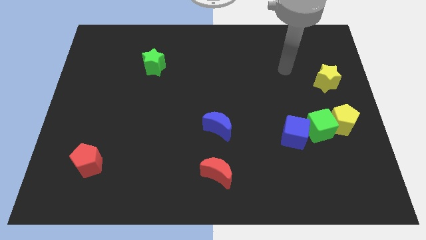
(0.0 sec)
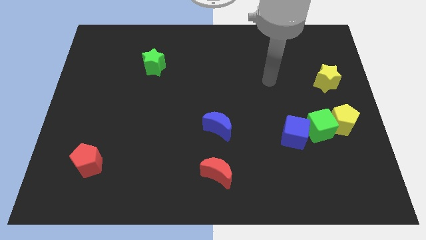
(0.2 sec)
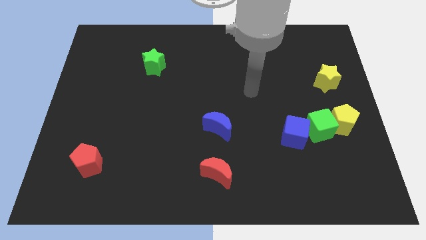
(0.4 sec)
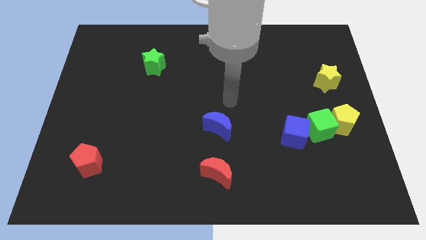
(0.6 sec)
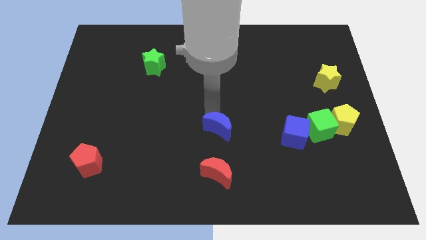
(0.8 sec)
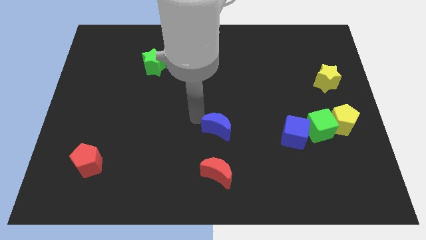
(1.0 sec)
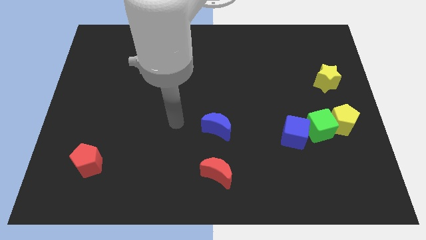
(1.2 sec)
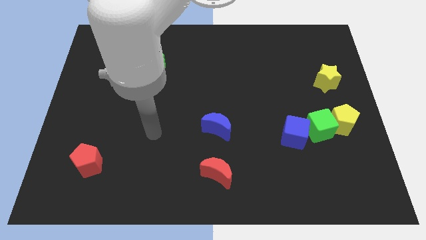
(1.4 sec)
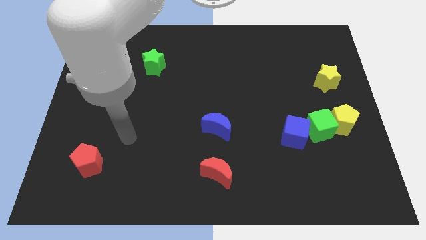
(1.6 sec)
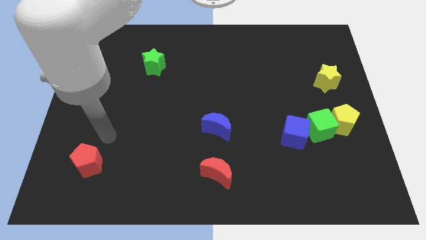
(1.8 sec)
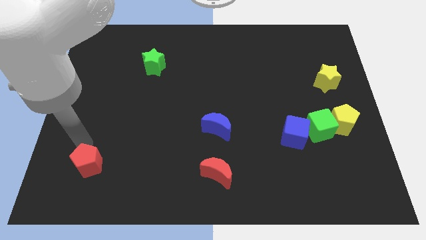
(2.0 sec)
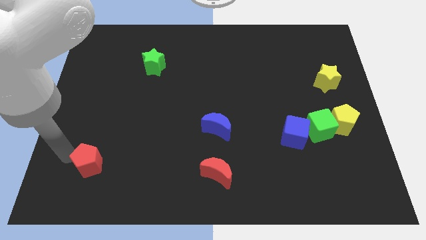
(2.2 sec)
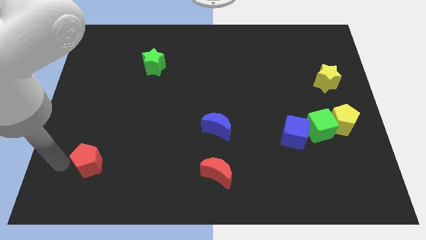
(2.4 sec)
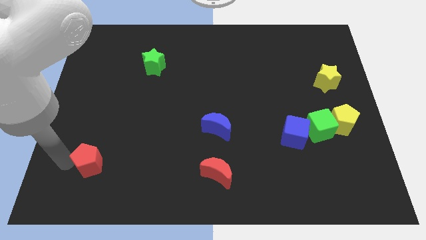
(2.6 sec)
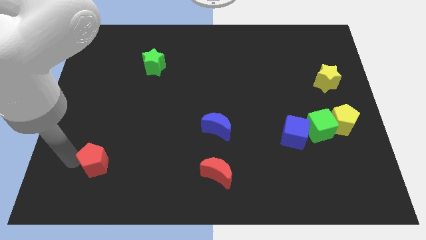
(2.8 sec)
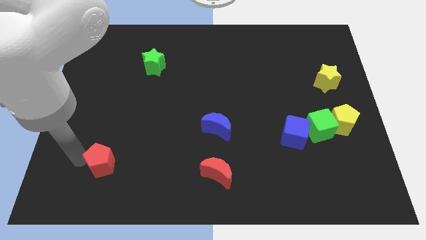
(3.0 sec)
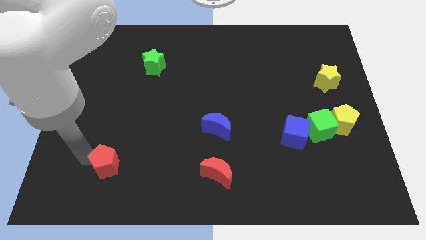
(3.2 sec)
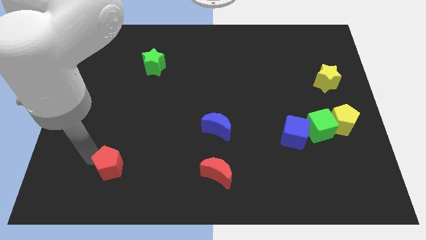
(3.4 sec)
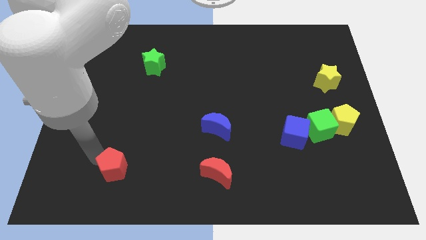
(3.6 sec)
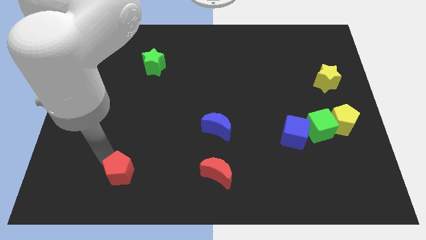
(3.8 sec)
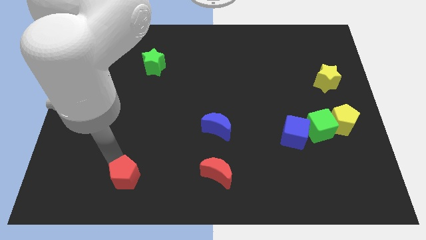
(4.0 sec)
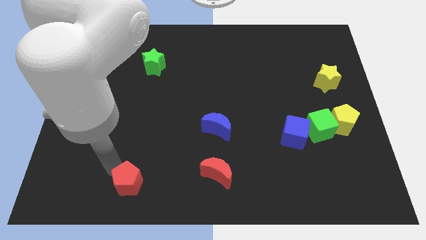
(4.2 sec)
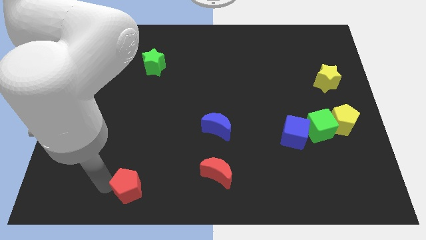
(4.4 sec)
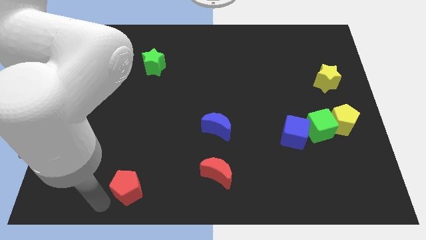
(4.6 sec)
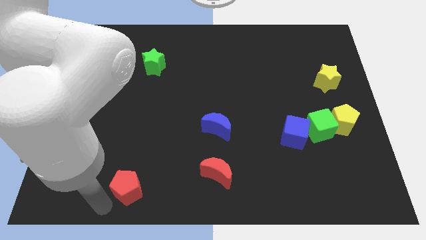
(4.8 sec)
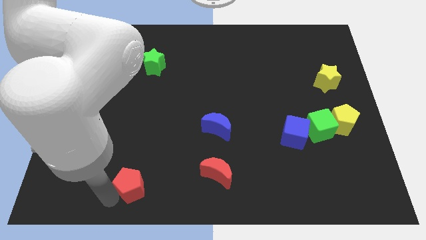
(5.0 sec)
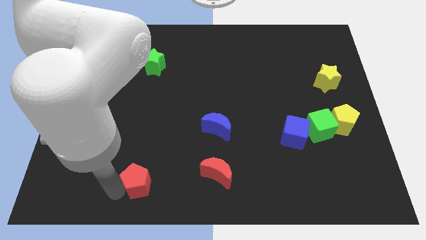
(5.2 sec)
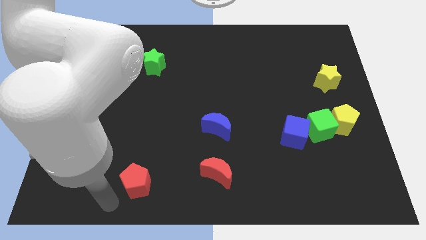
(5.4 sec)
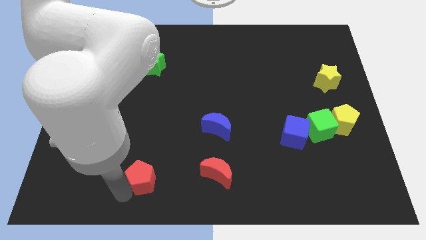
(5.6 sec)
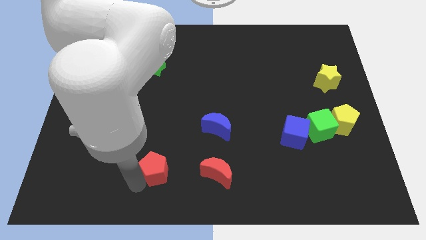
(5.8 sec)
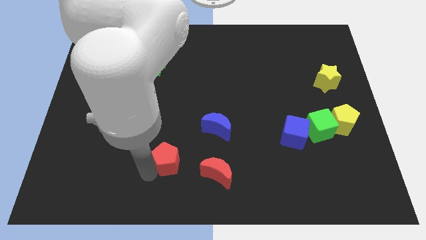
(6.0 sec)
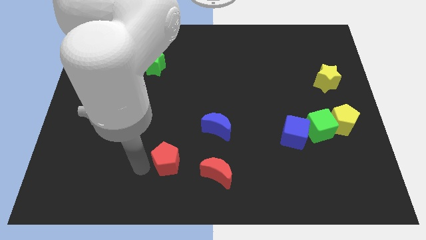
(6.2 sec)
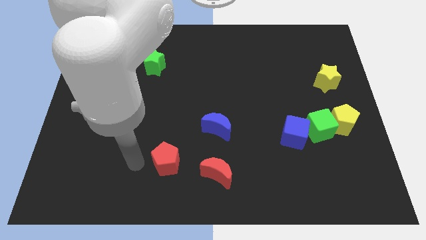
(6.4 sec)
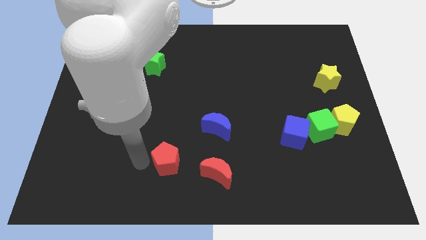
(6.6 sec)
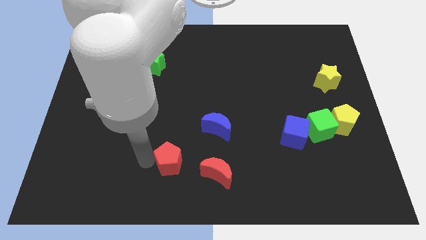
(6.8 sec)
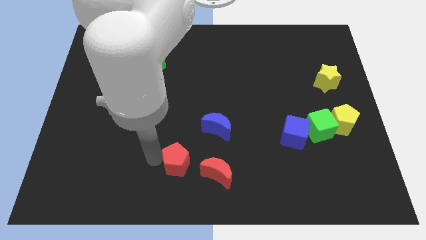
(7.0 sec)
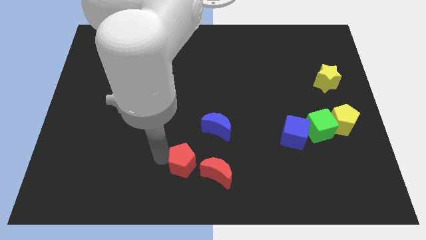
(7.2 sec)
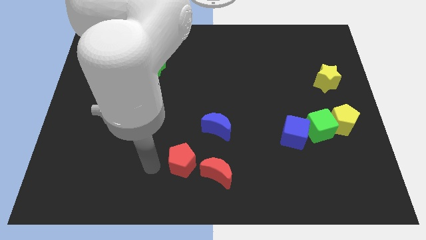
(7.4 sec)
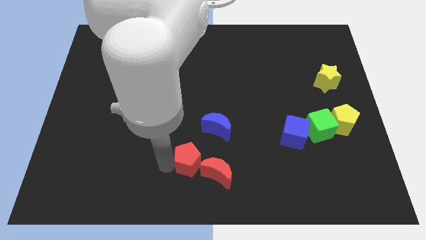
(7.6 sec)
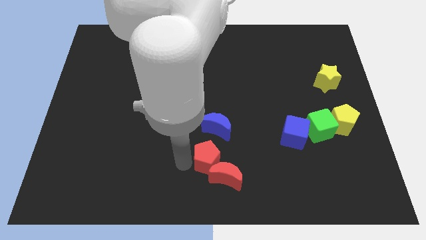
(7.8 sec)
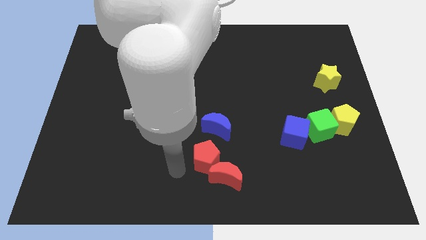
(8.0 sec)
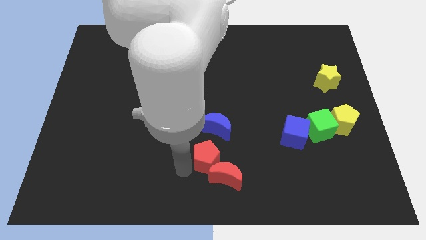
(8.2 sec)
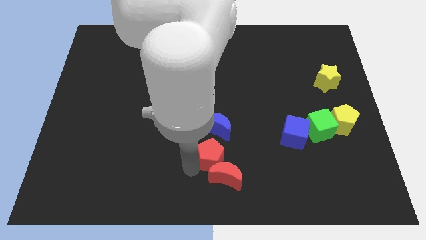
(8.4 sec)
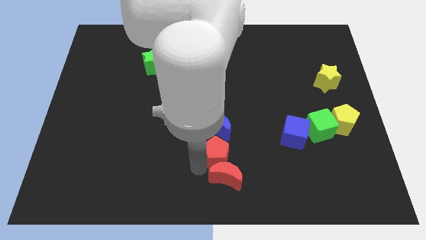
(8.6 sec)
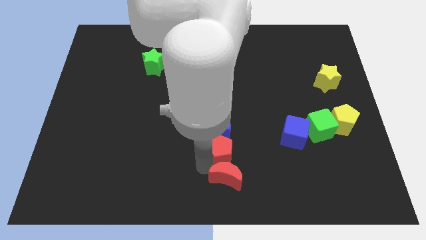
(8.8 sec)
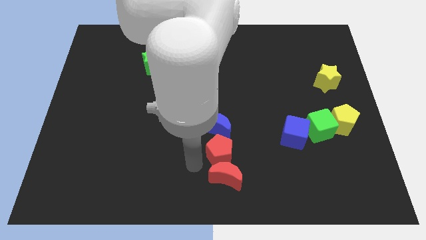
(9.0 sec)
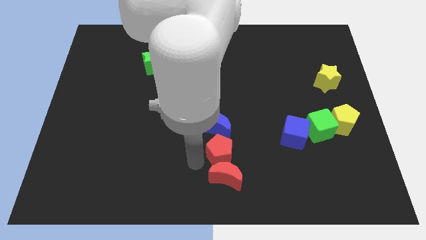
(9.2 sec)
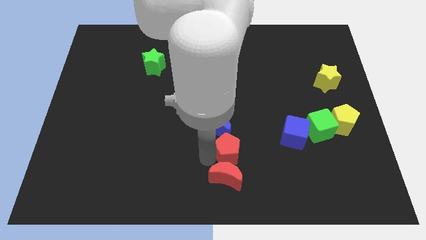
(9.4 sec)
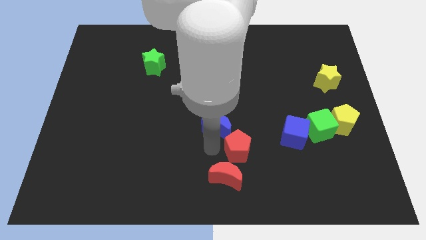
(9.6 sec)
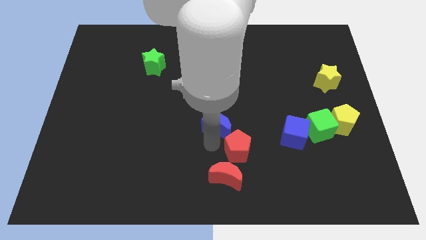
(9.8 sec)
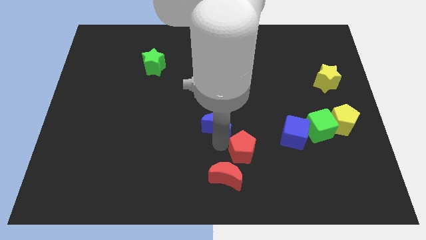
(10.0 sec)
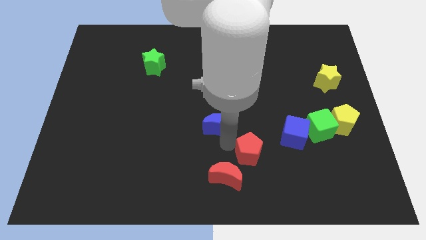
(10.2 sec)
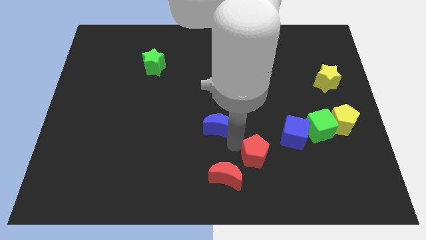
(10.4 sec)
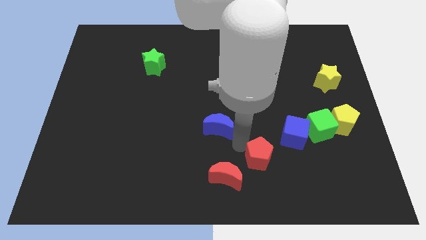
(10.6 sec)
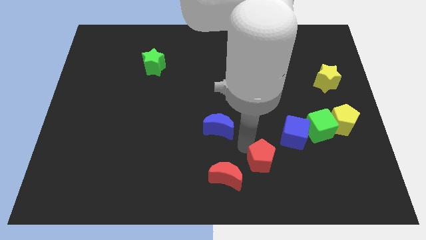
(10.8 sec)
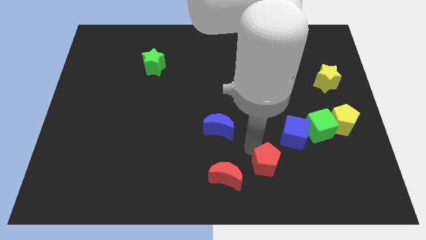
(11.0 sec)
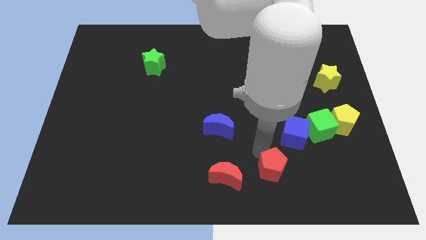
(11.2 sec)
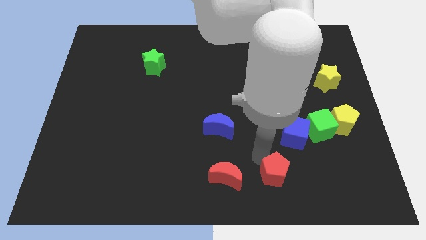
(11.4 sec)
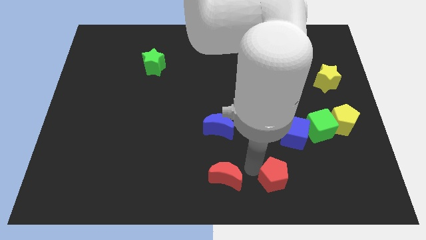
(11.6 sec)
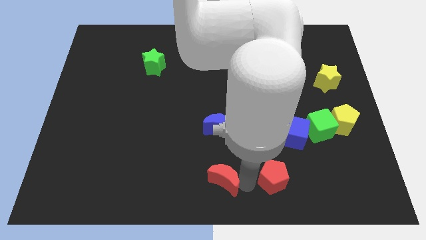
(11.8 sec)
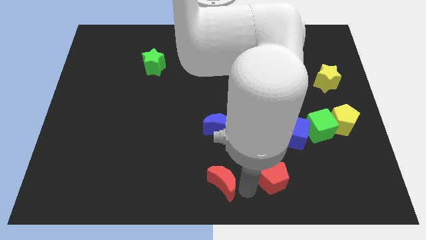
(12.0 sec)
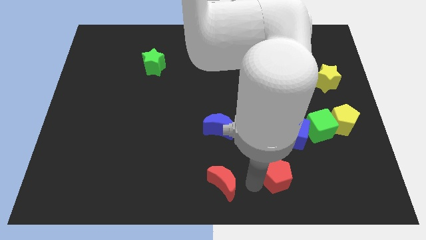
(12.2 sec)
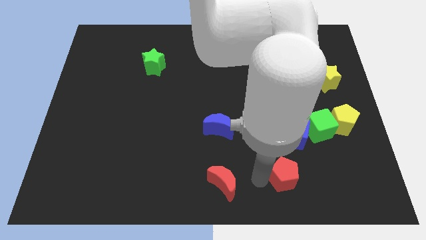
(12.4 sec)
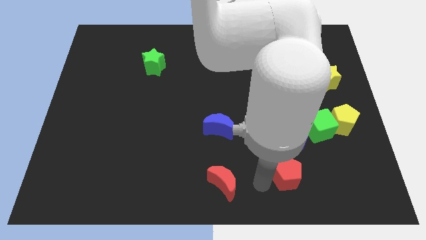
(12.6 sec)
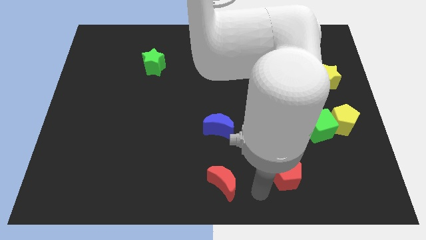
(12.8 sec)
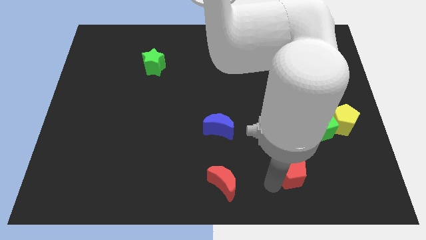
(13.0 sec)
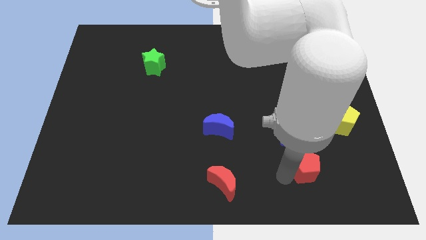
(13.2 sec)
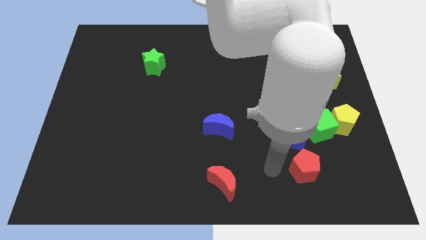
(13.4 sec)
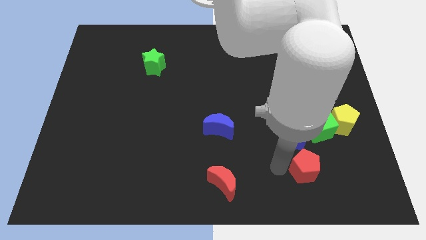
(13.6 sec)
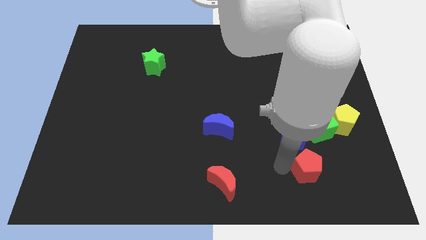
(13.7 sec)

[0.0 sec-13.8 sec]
put the red pentagon below the green cube
